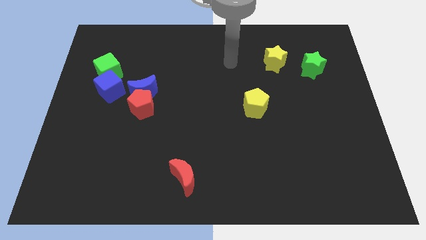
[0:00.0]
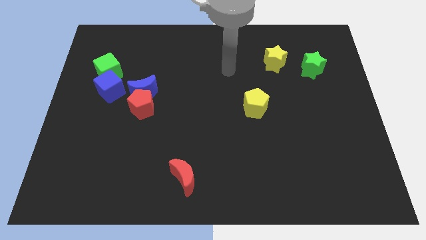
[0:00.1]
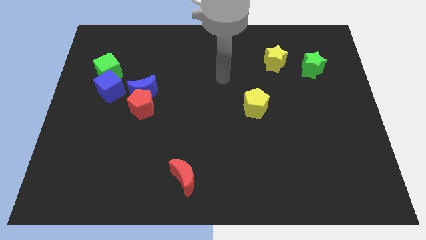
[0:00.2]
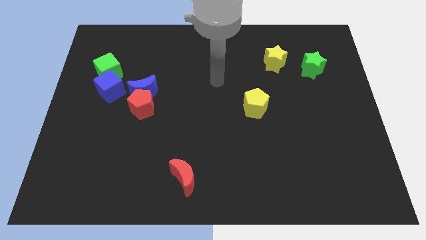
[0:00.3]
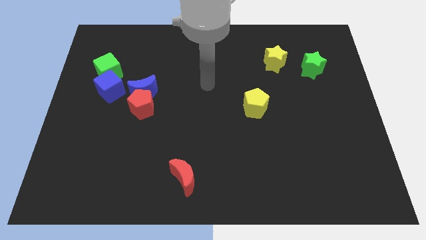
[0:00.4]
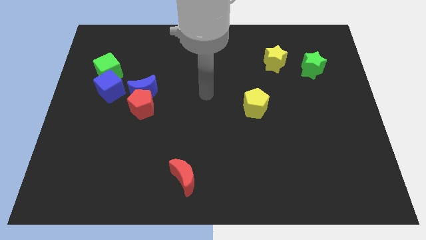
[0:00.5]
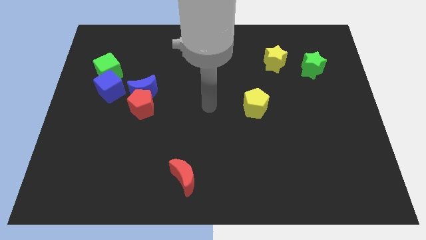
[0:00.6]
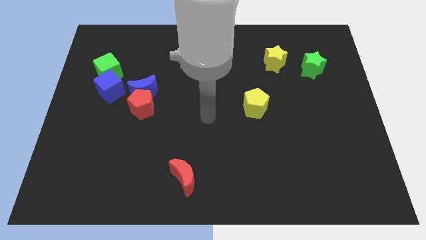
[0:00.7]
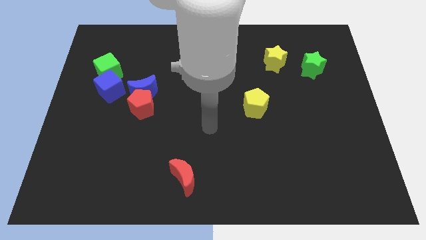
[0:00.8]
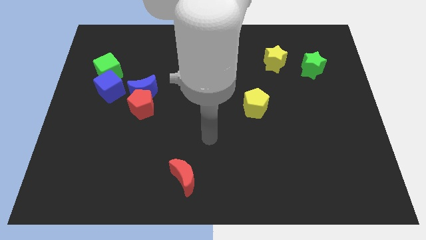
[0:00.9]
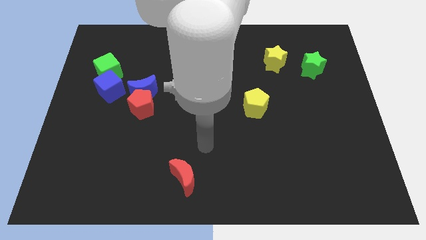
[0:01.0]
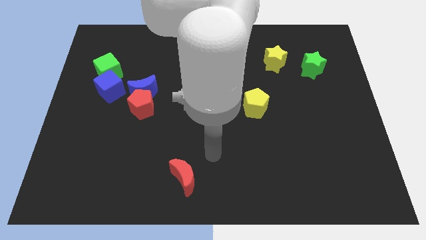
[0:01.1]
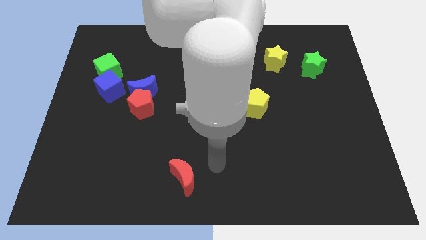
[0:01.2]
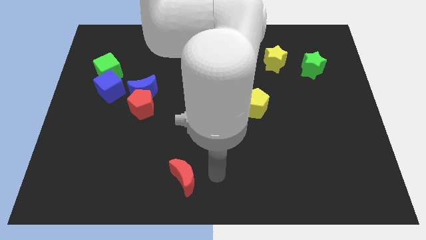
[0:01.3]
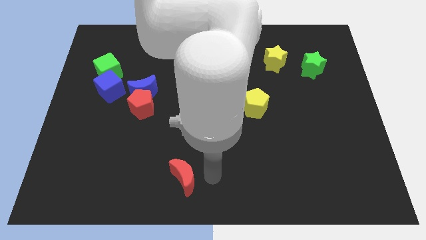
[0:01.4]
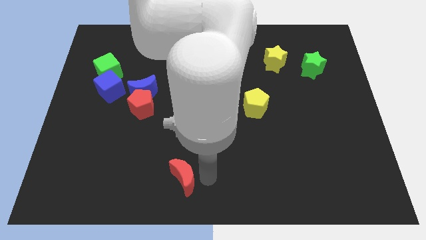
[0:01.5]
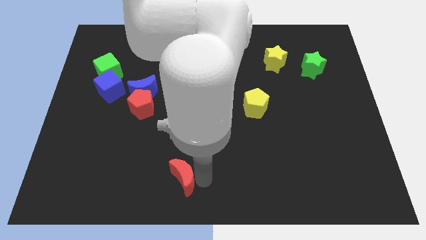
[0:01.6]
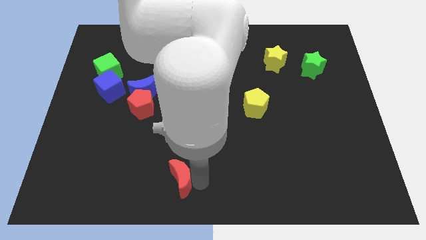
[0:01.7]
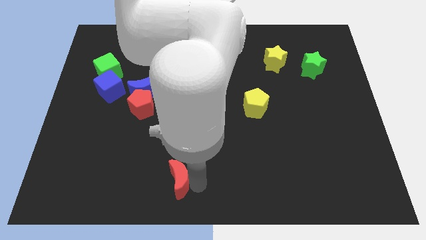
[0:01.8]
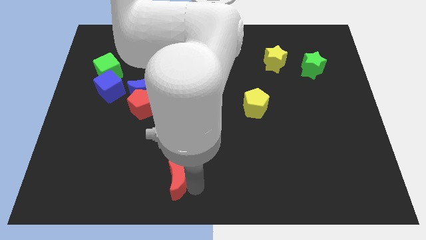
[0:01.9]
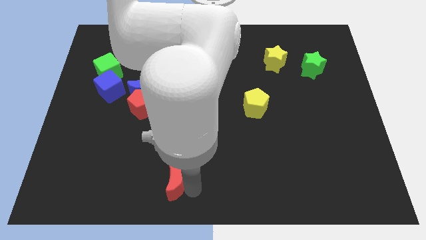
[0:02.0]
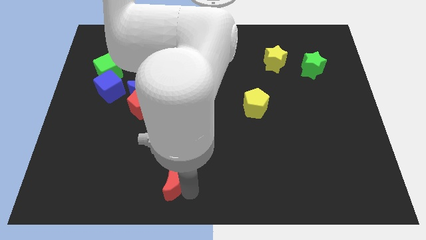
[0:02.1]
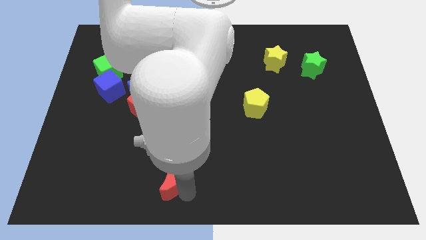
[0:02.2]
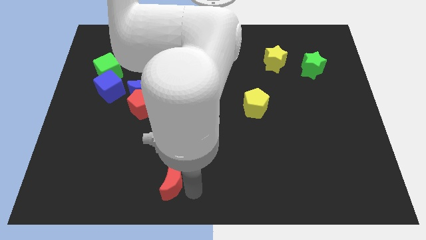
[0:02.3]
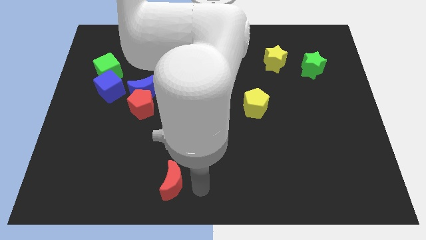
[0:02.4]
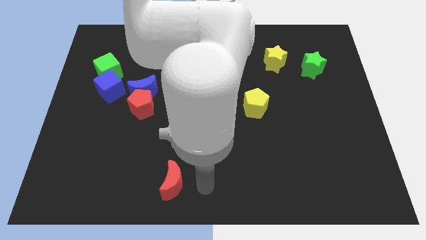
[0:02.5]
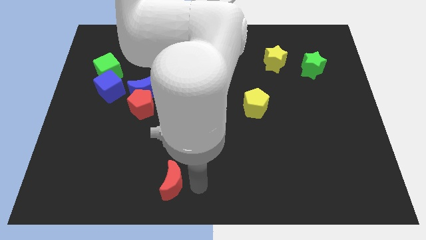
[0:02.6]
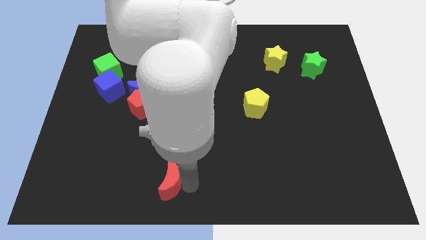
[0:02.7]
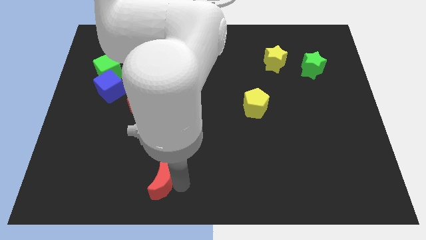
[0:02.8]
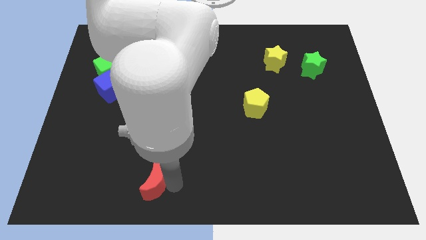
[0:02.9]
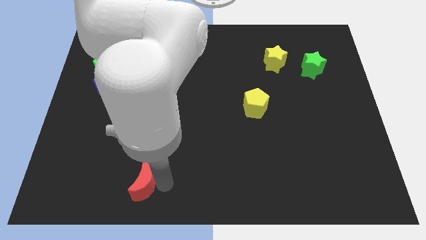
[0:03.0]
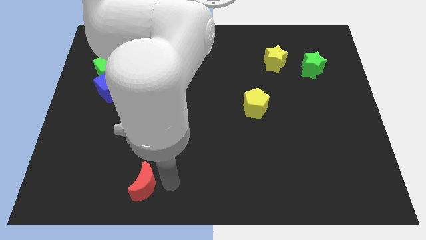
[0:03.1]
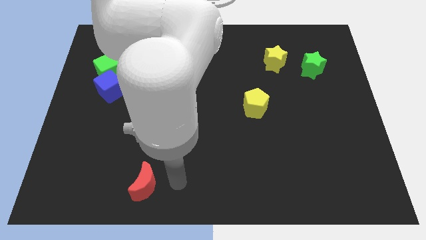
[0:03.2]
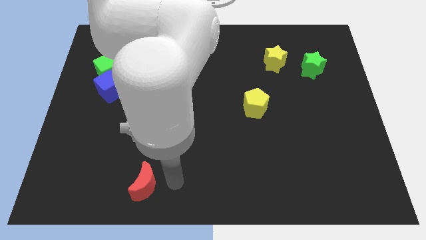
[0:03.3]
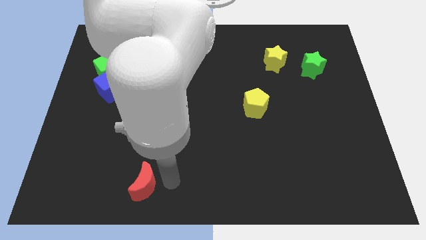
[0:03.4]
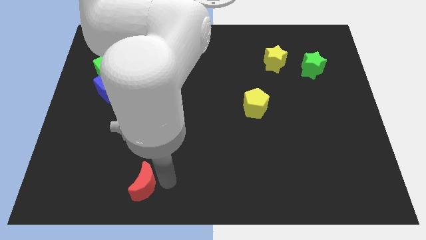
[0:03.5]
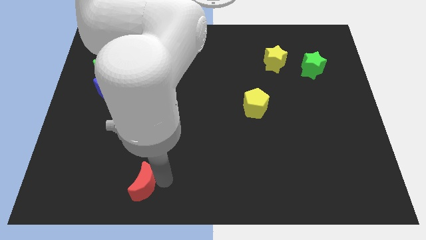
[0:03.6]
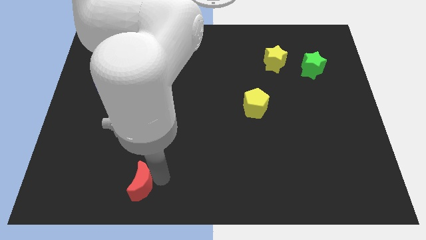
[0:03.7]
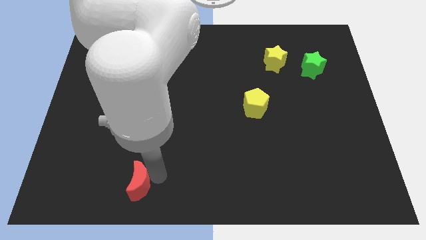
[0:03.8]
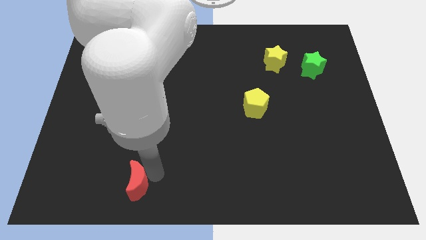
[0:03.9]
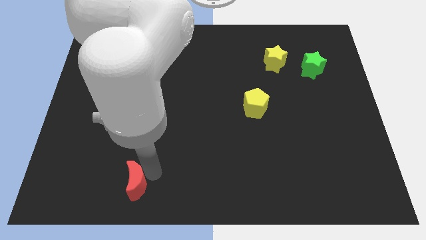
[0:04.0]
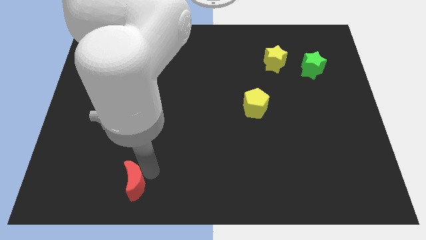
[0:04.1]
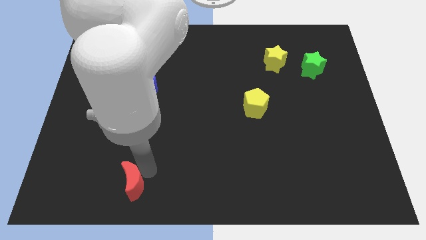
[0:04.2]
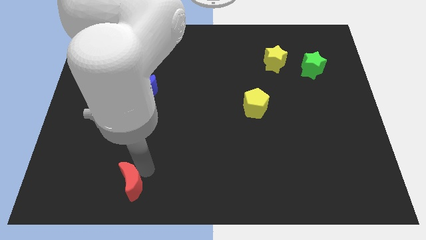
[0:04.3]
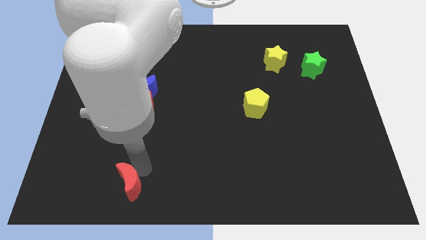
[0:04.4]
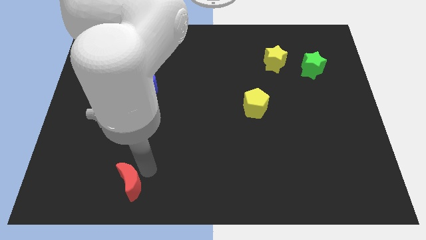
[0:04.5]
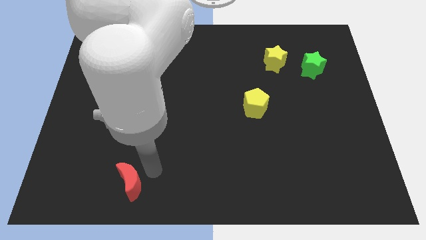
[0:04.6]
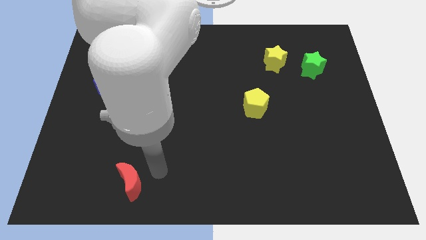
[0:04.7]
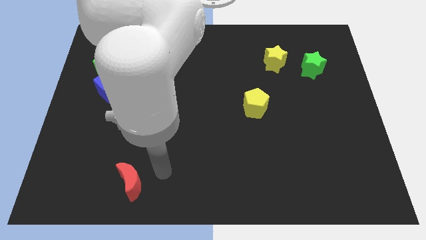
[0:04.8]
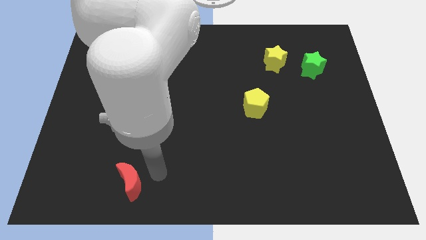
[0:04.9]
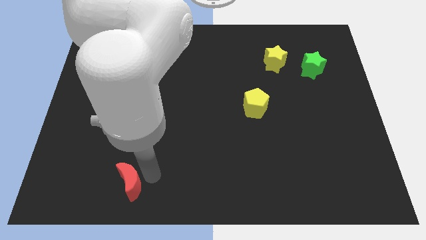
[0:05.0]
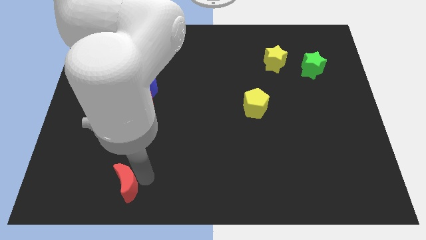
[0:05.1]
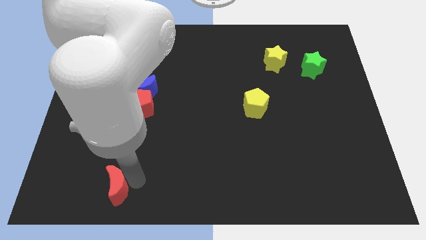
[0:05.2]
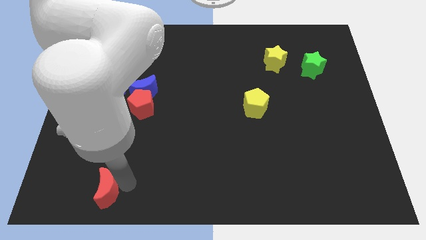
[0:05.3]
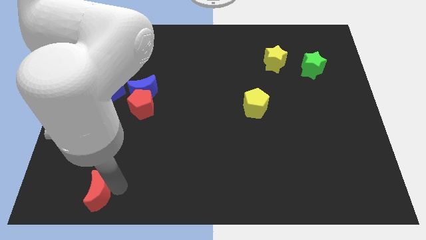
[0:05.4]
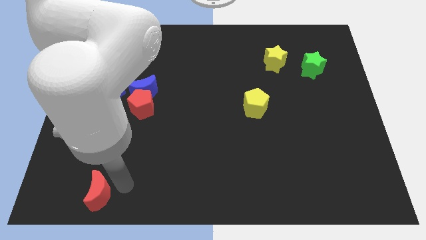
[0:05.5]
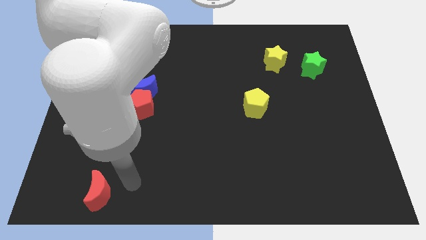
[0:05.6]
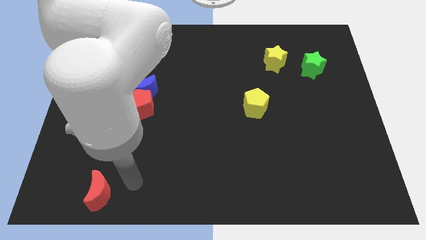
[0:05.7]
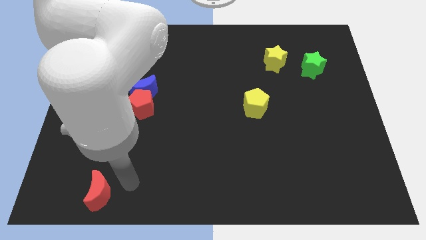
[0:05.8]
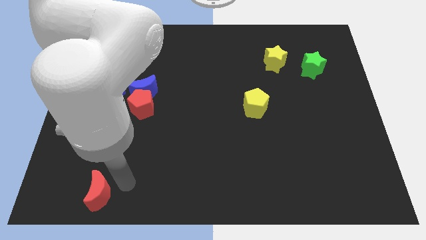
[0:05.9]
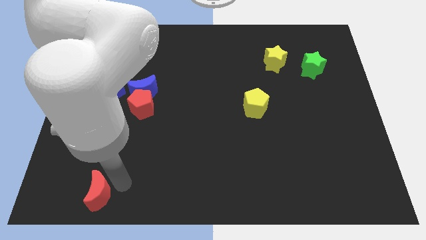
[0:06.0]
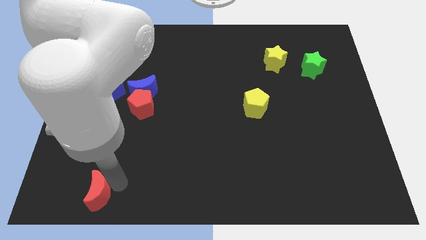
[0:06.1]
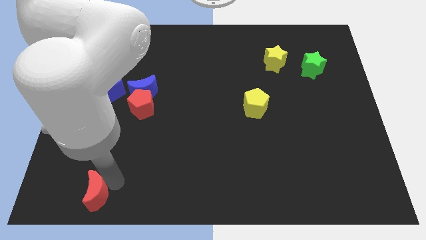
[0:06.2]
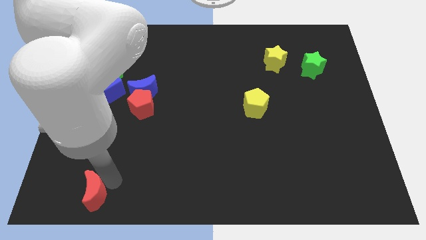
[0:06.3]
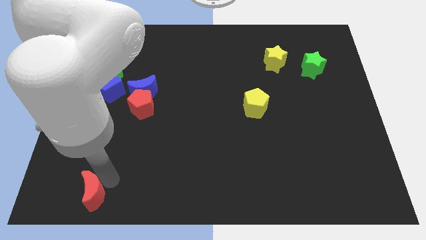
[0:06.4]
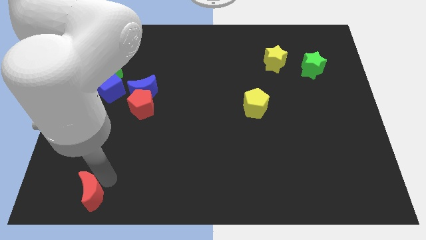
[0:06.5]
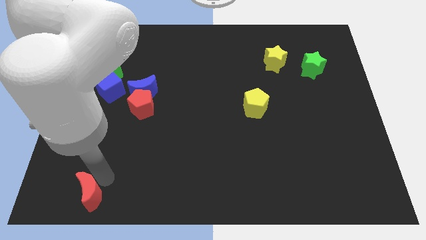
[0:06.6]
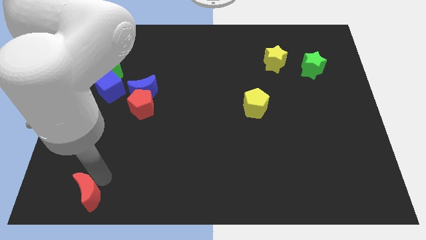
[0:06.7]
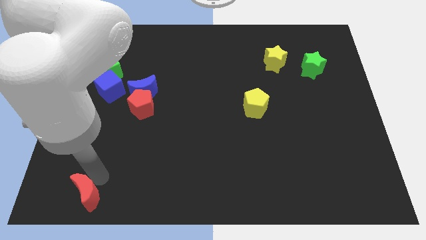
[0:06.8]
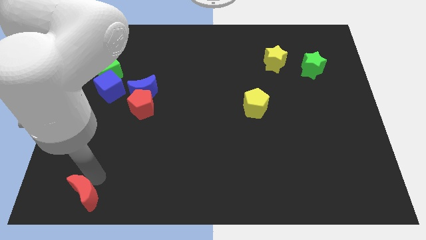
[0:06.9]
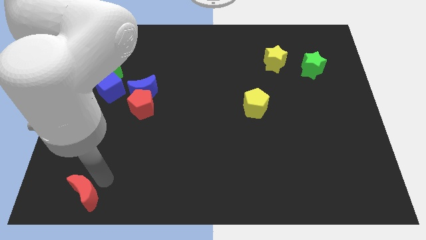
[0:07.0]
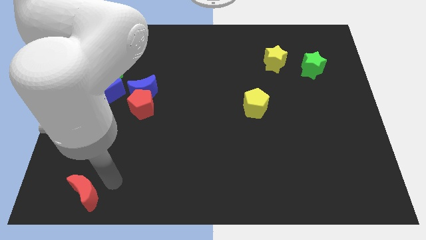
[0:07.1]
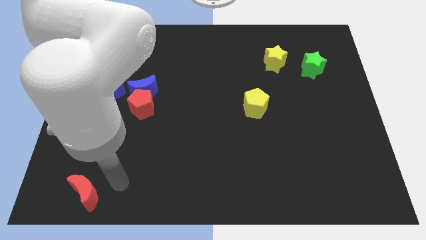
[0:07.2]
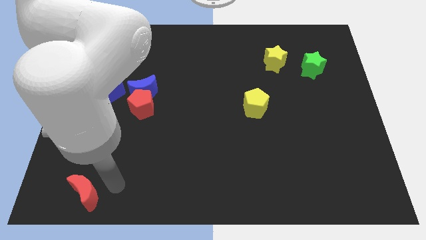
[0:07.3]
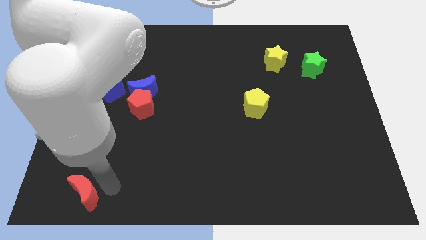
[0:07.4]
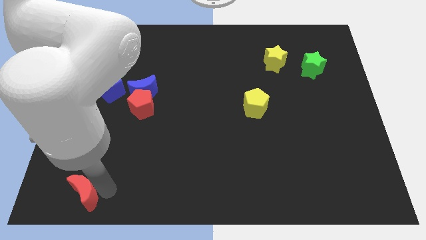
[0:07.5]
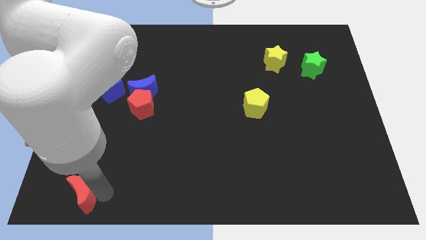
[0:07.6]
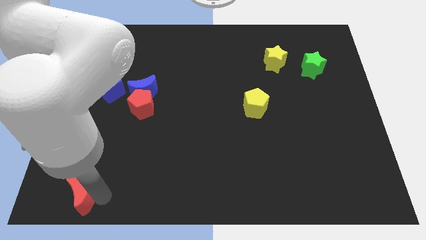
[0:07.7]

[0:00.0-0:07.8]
put the red moon to the bottom left of the board
